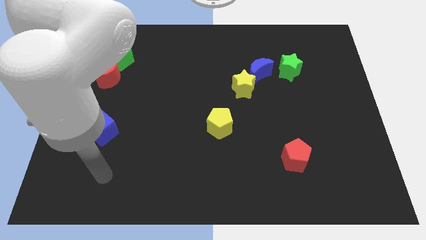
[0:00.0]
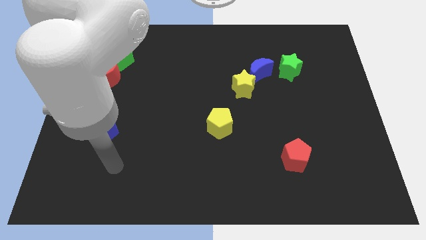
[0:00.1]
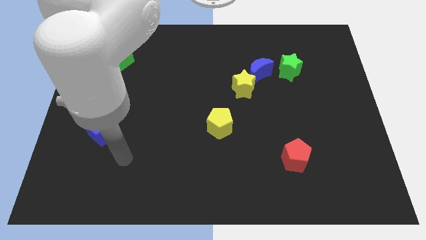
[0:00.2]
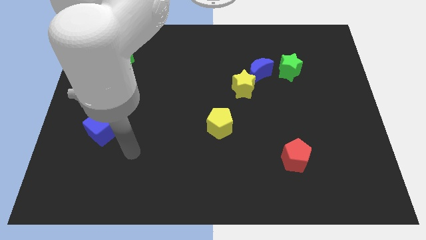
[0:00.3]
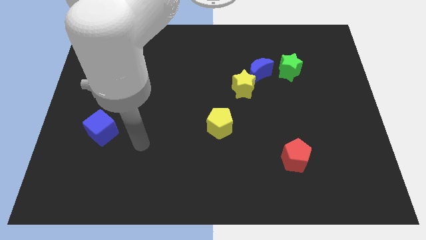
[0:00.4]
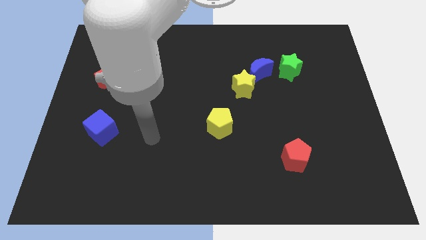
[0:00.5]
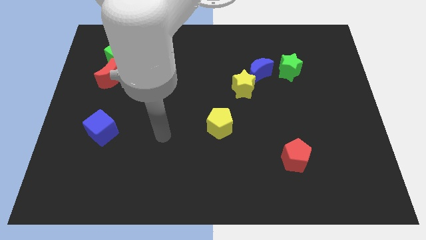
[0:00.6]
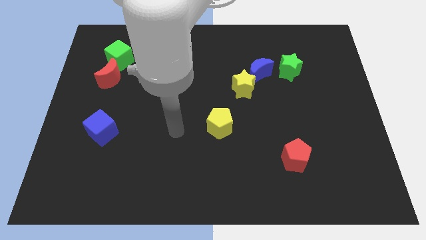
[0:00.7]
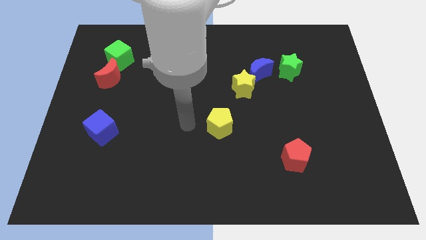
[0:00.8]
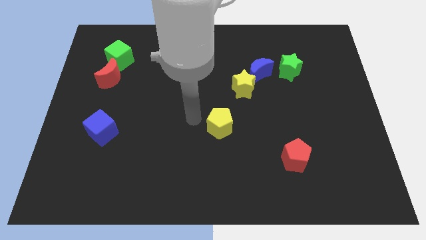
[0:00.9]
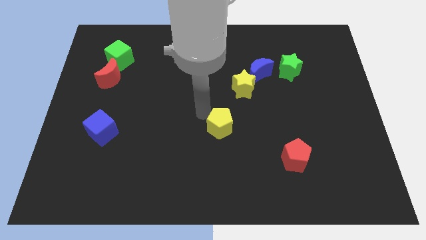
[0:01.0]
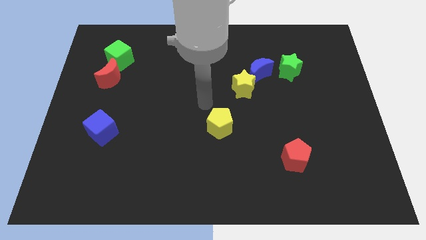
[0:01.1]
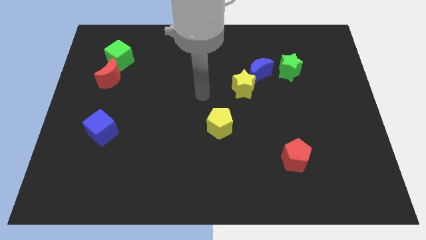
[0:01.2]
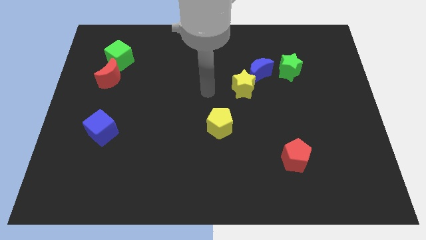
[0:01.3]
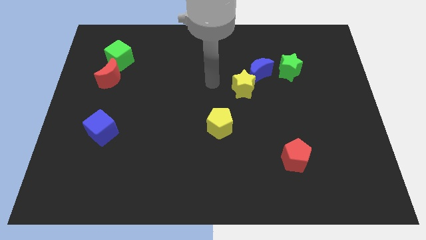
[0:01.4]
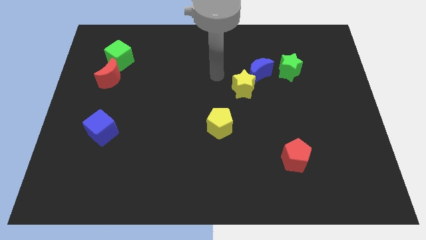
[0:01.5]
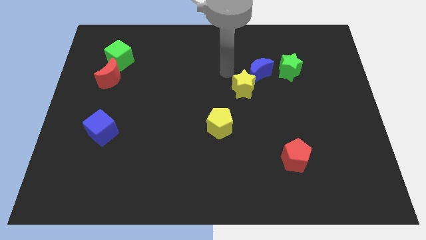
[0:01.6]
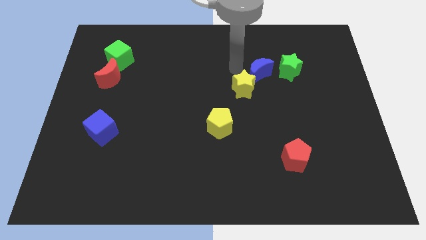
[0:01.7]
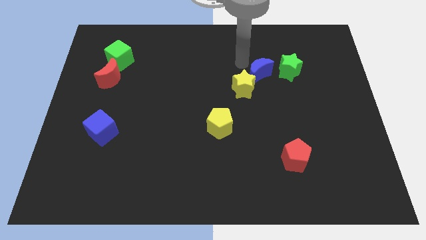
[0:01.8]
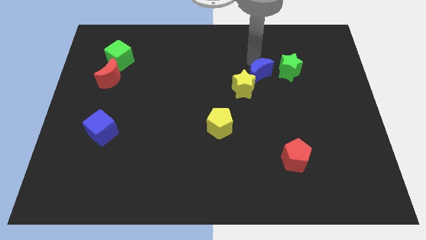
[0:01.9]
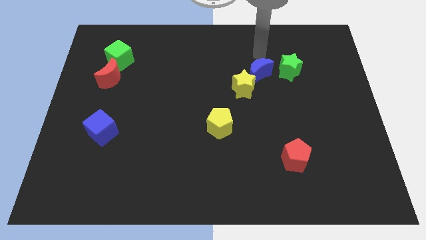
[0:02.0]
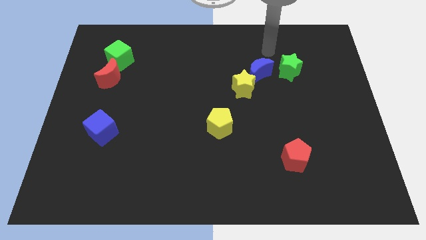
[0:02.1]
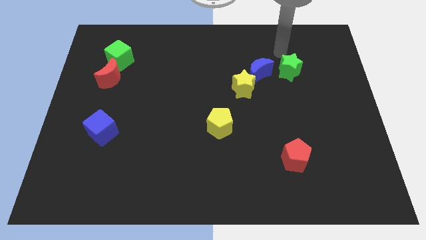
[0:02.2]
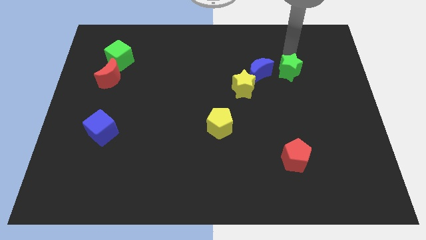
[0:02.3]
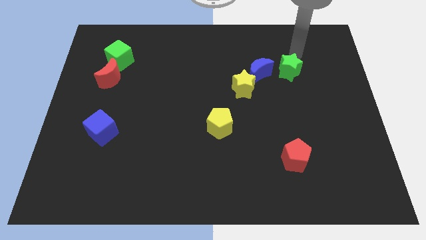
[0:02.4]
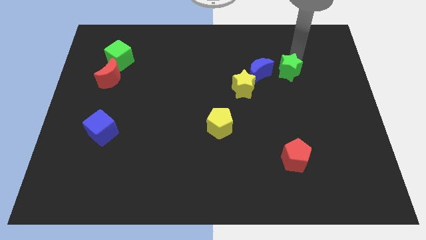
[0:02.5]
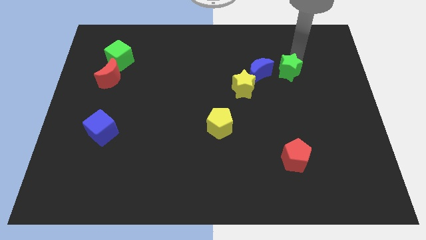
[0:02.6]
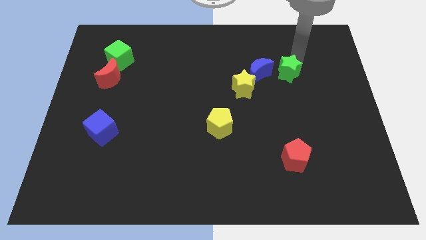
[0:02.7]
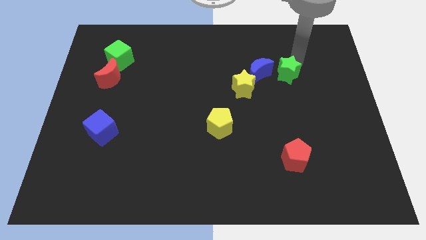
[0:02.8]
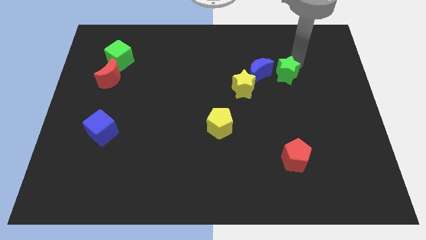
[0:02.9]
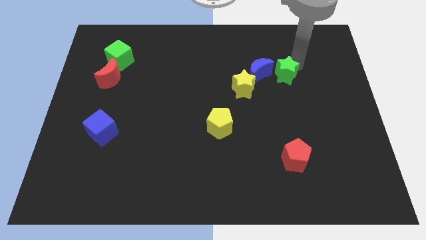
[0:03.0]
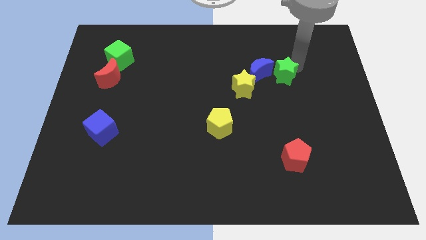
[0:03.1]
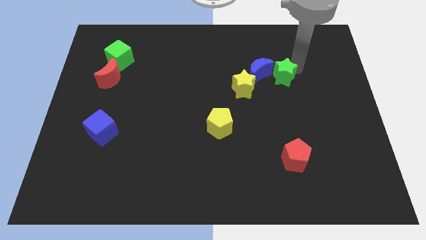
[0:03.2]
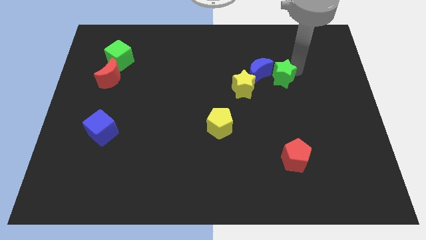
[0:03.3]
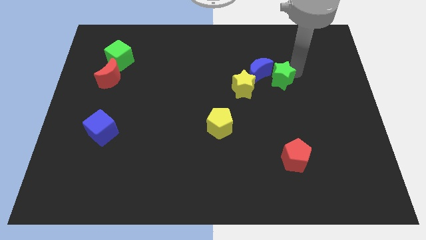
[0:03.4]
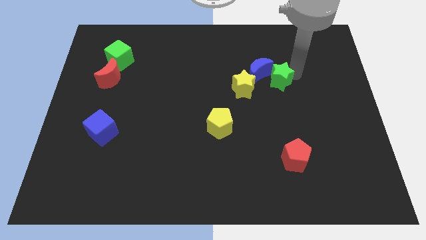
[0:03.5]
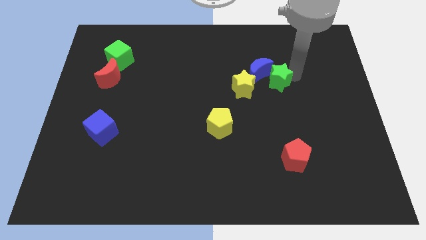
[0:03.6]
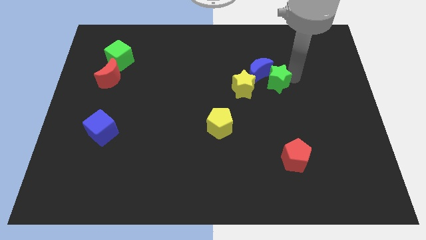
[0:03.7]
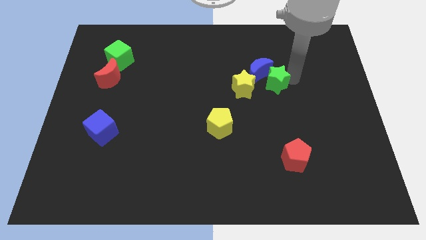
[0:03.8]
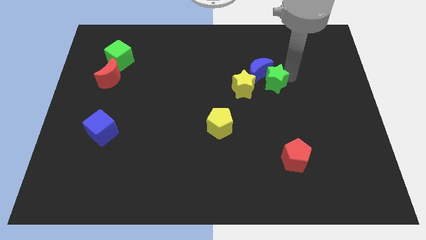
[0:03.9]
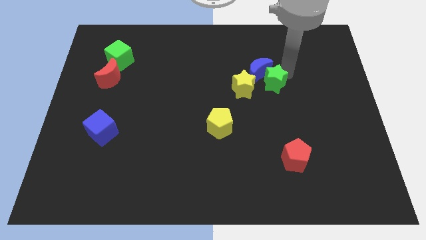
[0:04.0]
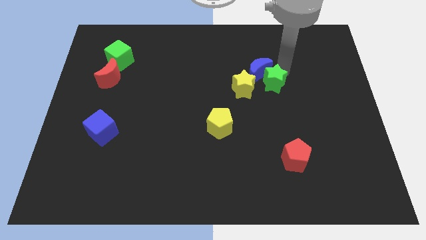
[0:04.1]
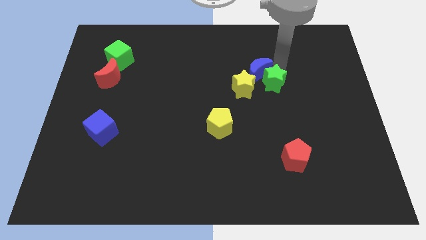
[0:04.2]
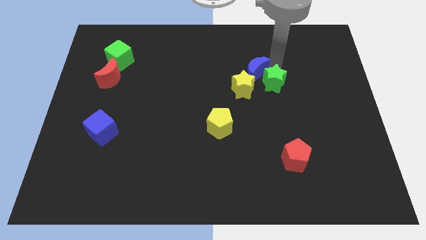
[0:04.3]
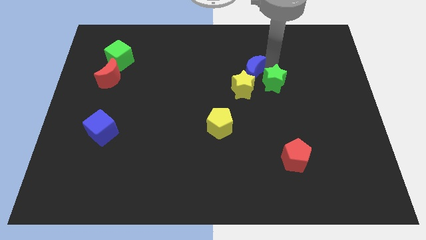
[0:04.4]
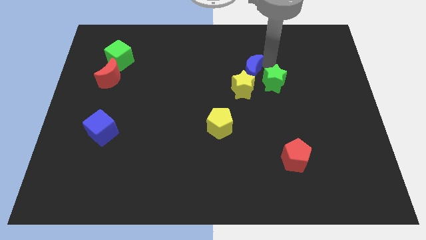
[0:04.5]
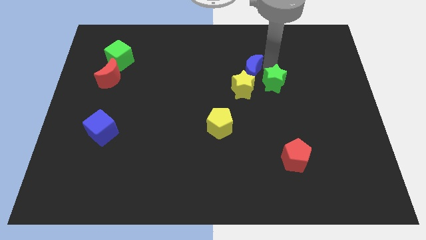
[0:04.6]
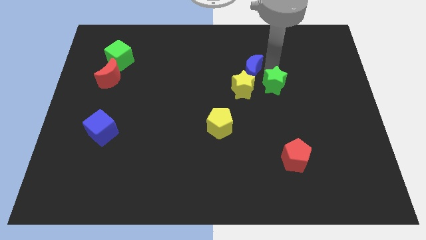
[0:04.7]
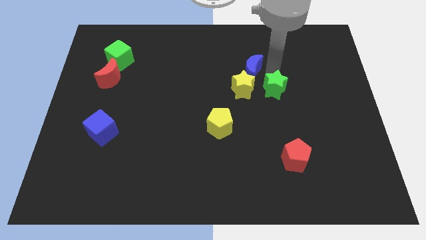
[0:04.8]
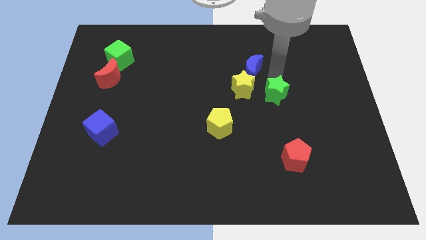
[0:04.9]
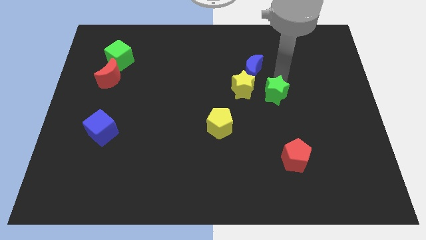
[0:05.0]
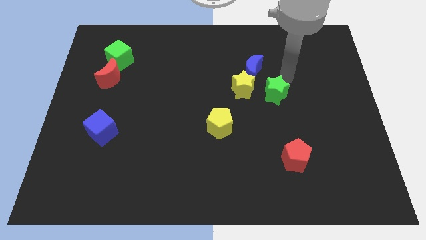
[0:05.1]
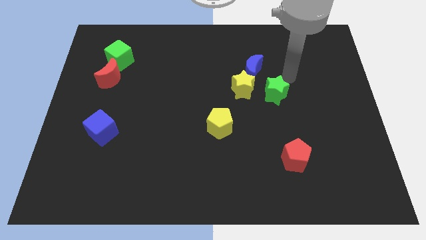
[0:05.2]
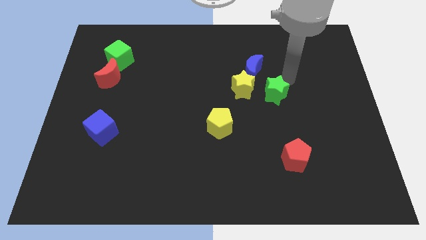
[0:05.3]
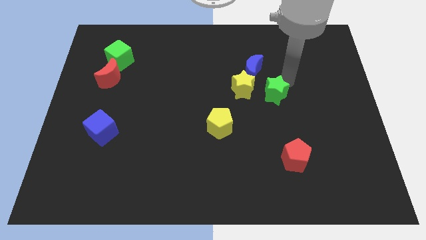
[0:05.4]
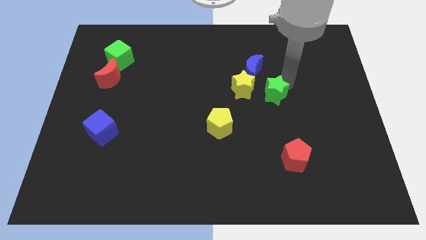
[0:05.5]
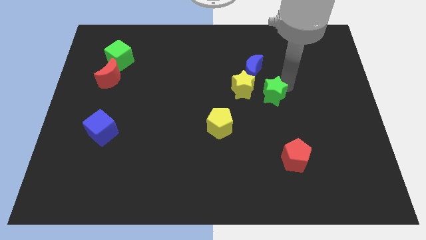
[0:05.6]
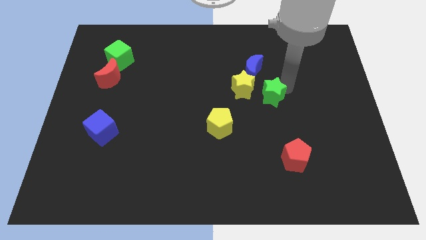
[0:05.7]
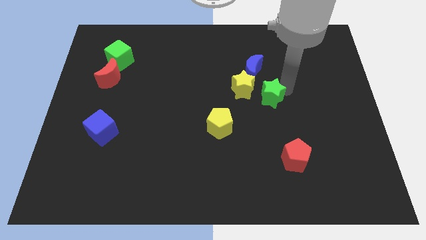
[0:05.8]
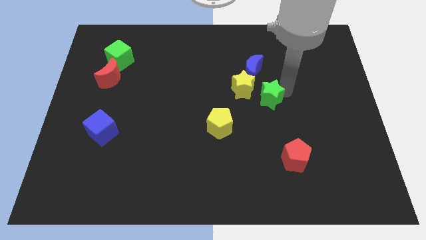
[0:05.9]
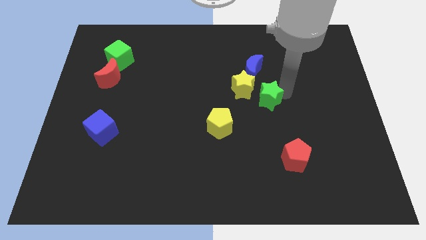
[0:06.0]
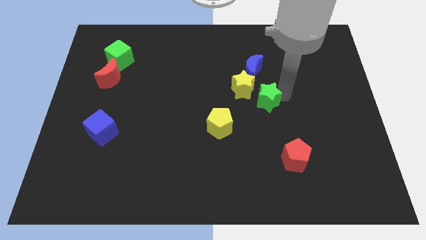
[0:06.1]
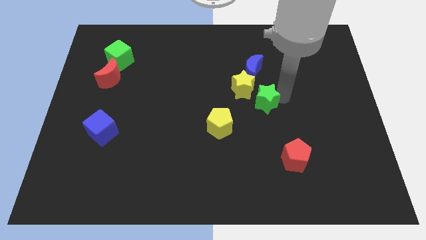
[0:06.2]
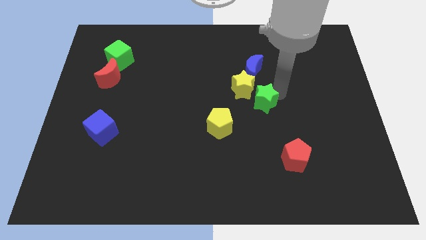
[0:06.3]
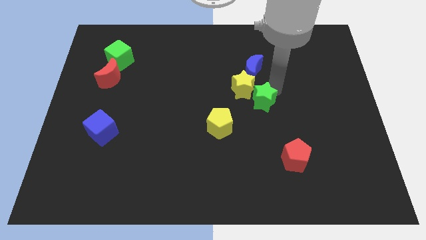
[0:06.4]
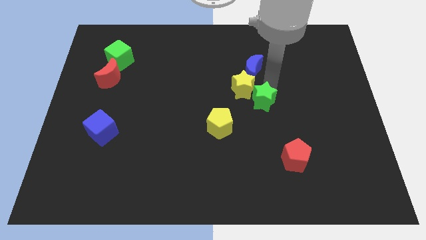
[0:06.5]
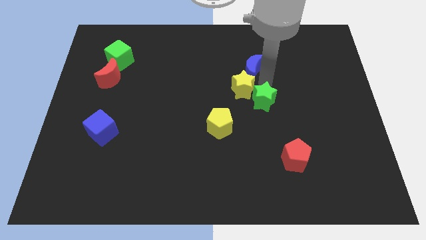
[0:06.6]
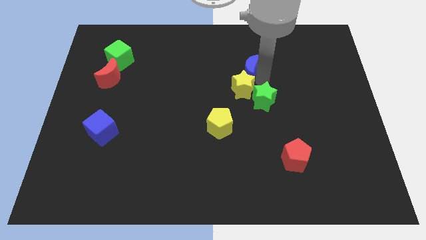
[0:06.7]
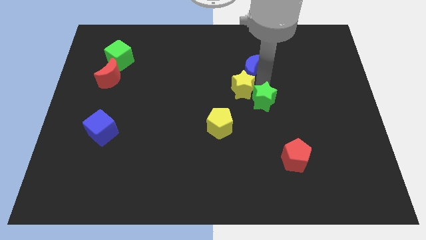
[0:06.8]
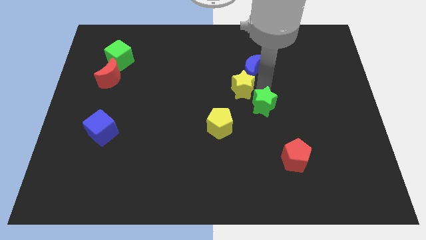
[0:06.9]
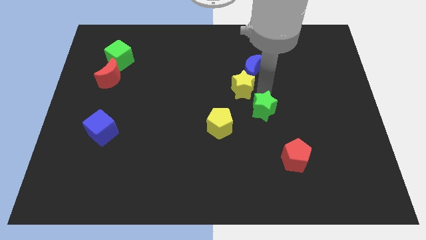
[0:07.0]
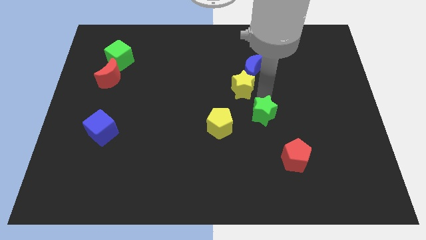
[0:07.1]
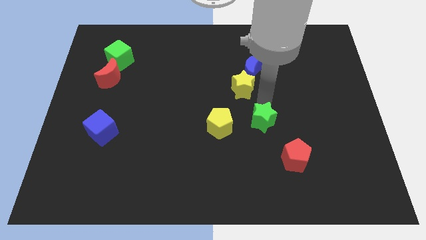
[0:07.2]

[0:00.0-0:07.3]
put the green star diagonally up and to the left of the red pentagon
